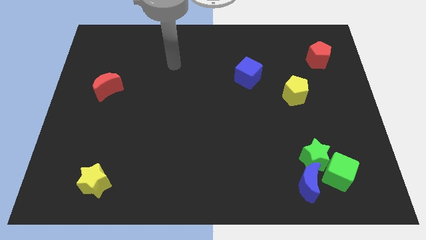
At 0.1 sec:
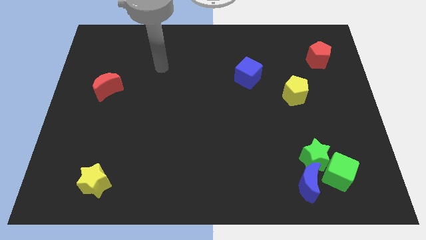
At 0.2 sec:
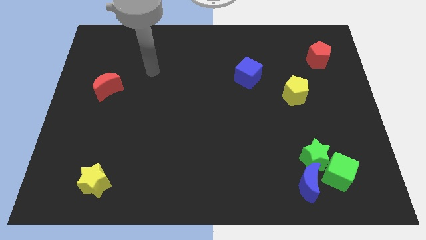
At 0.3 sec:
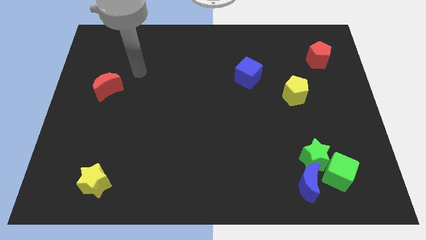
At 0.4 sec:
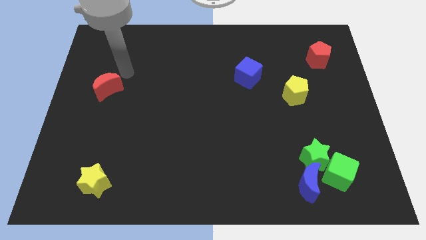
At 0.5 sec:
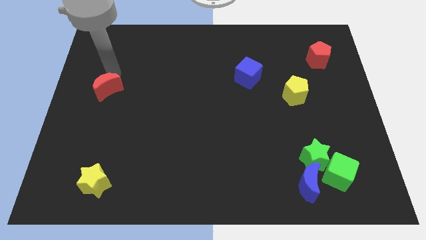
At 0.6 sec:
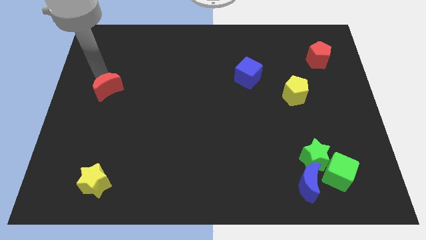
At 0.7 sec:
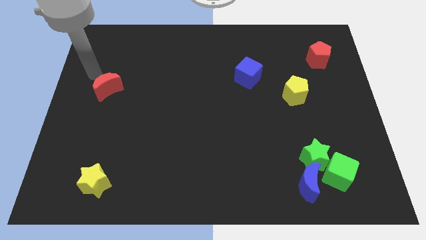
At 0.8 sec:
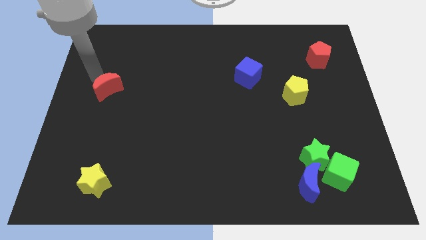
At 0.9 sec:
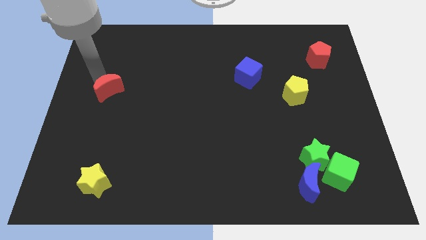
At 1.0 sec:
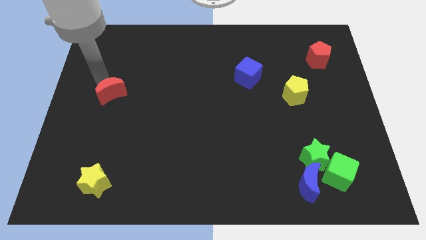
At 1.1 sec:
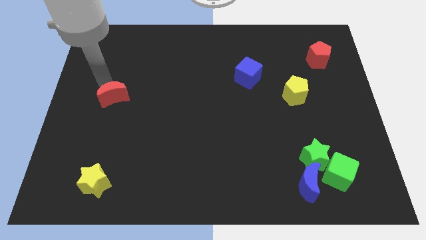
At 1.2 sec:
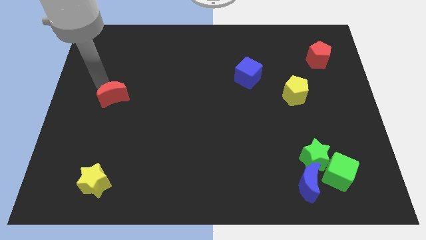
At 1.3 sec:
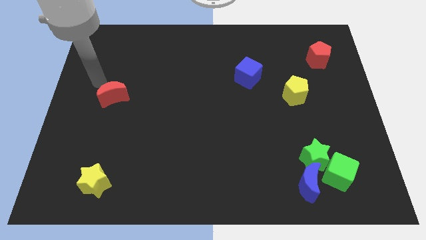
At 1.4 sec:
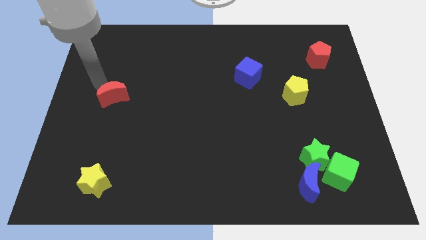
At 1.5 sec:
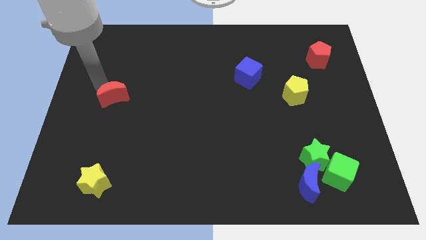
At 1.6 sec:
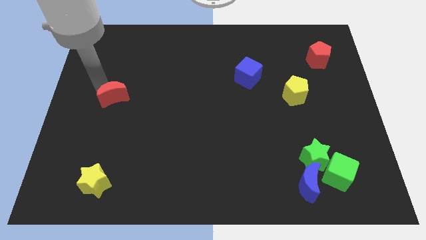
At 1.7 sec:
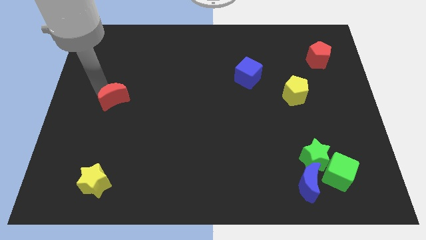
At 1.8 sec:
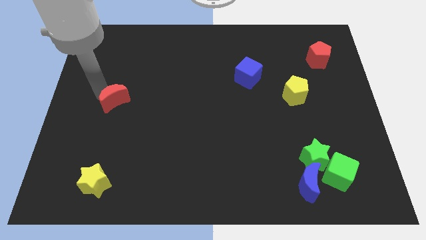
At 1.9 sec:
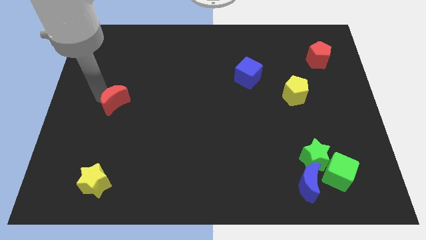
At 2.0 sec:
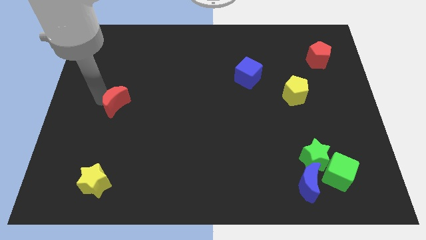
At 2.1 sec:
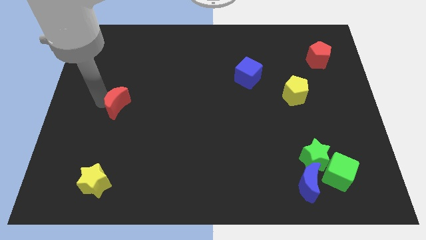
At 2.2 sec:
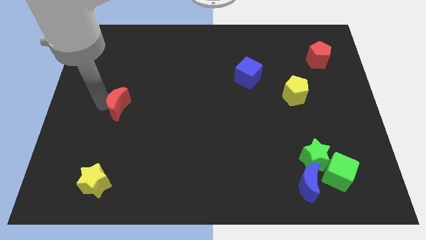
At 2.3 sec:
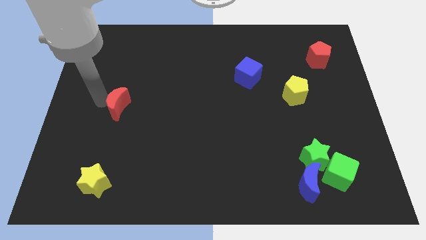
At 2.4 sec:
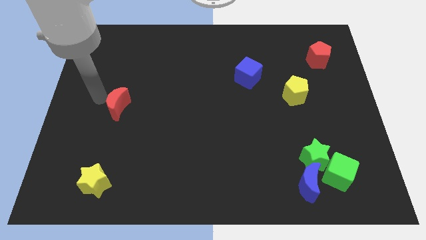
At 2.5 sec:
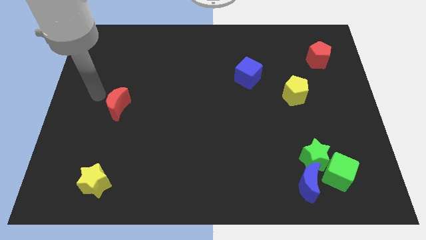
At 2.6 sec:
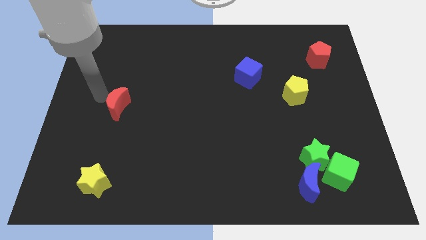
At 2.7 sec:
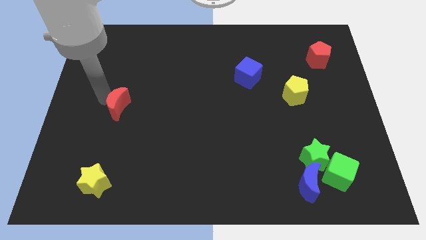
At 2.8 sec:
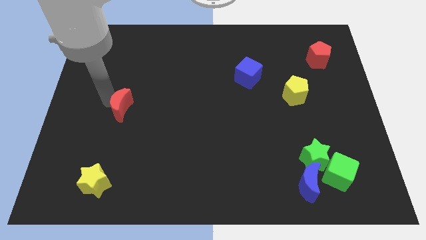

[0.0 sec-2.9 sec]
slightly move the red moon diagonally down and to the right

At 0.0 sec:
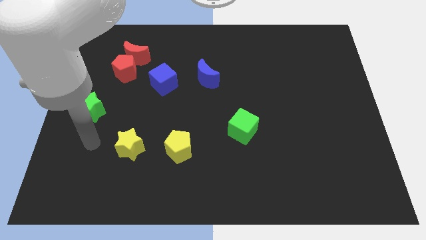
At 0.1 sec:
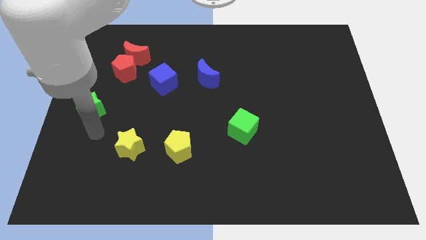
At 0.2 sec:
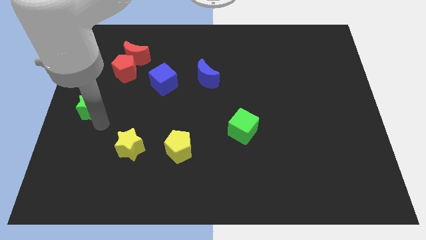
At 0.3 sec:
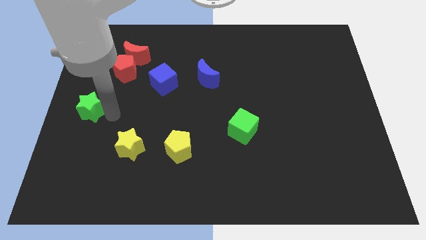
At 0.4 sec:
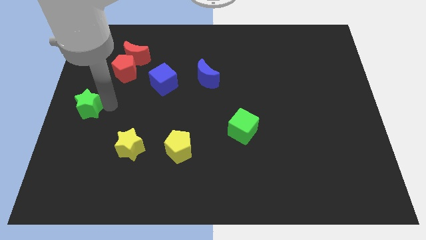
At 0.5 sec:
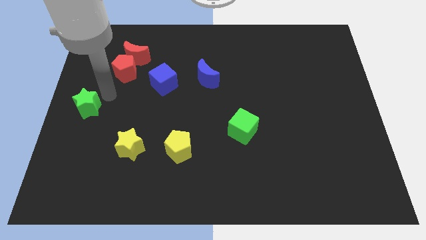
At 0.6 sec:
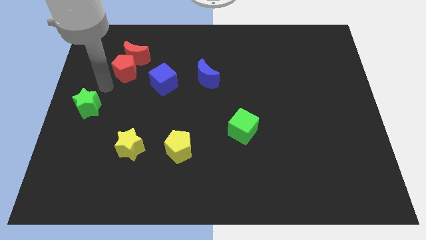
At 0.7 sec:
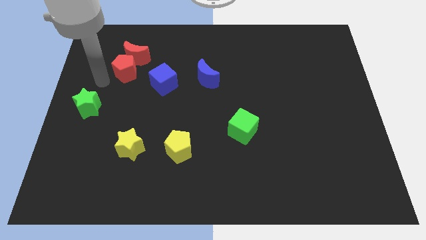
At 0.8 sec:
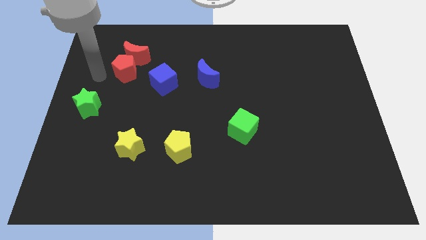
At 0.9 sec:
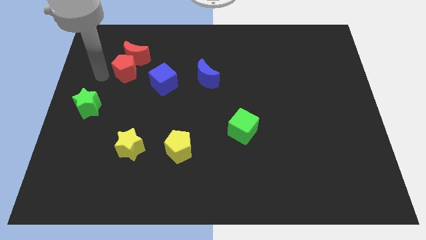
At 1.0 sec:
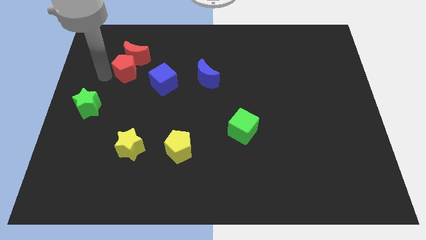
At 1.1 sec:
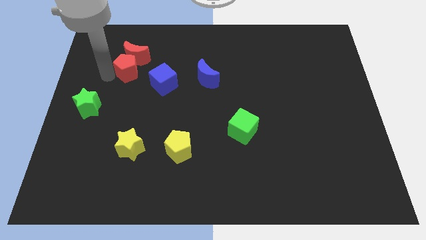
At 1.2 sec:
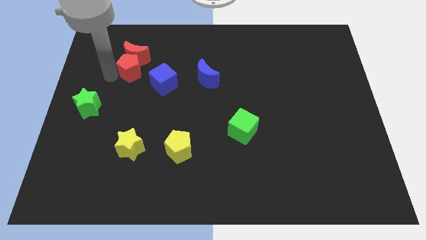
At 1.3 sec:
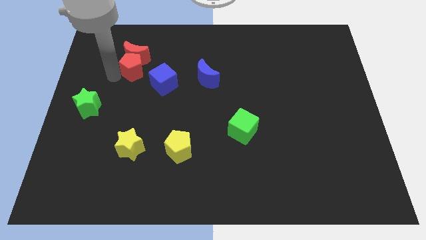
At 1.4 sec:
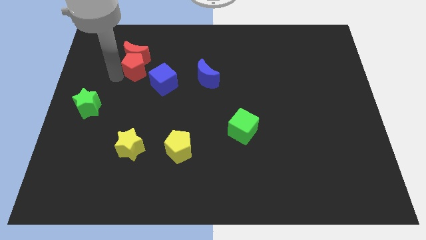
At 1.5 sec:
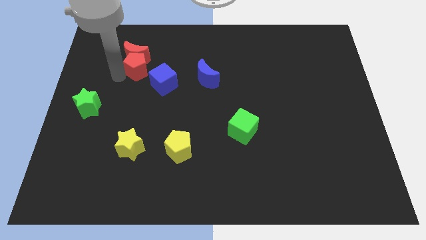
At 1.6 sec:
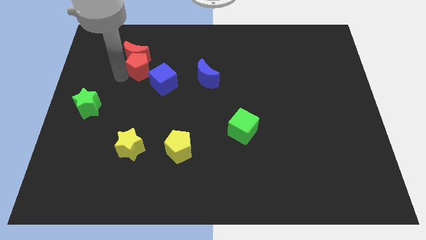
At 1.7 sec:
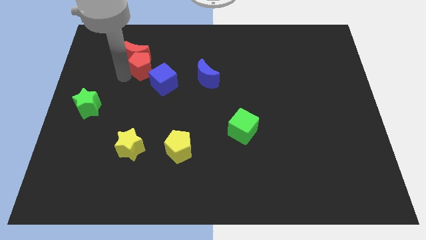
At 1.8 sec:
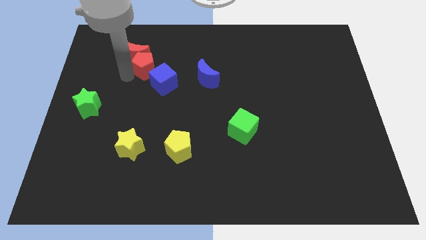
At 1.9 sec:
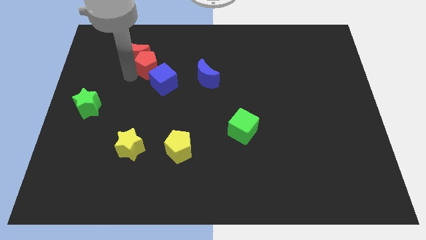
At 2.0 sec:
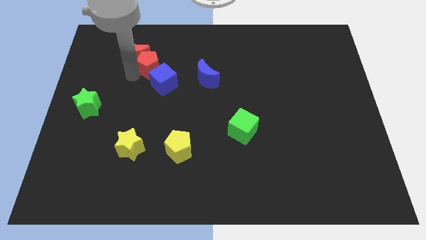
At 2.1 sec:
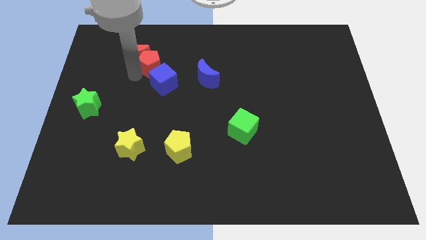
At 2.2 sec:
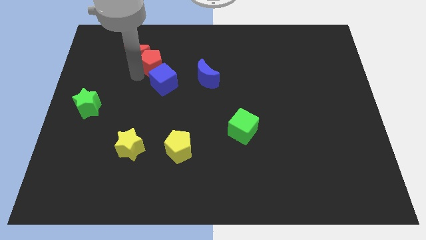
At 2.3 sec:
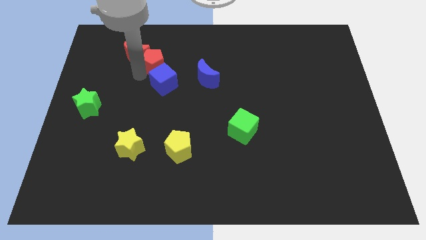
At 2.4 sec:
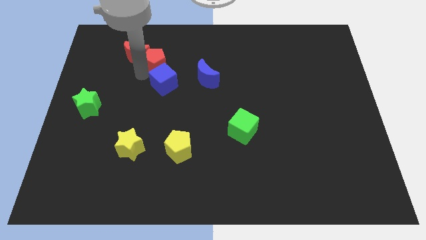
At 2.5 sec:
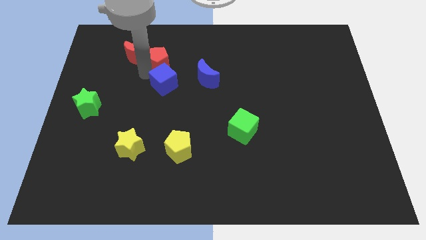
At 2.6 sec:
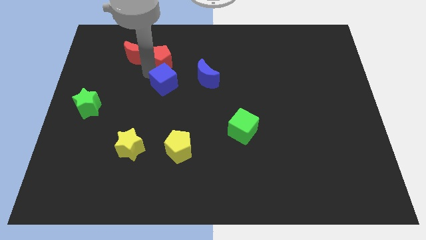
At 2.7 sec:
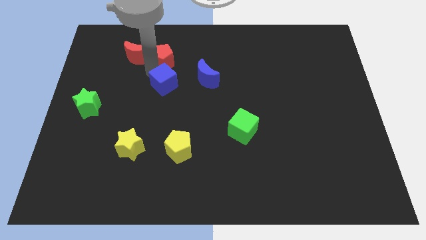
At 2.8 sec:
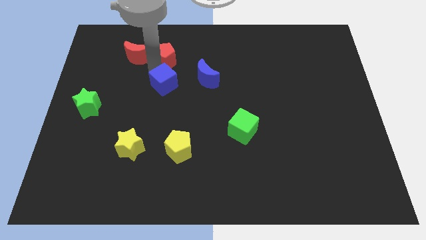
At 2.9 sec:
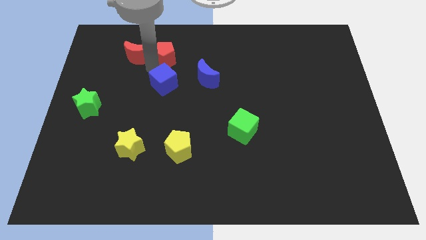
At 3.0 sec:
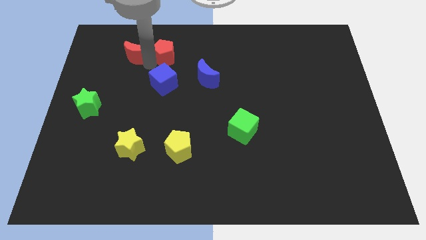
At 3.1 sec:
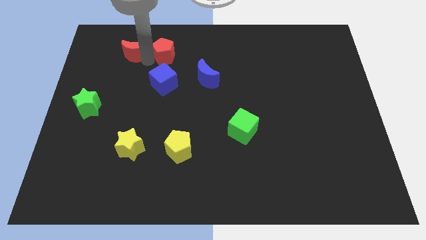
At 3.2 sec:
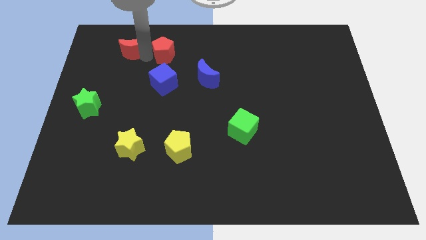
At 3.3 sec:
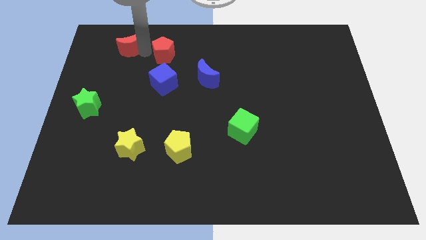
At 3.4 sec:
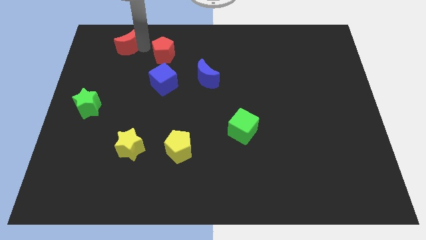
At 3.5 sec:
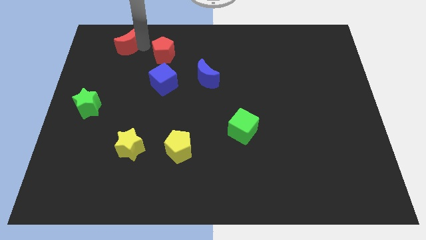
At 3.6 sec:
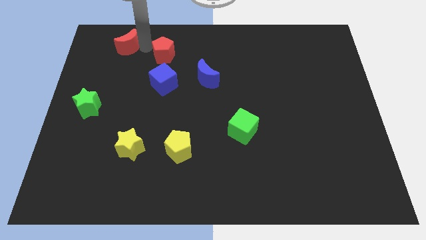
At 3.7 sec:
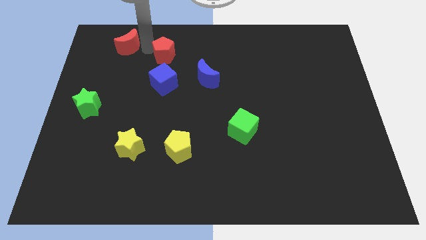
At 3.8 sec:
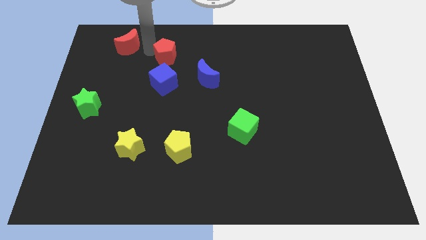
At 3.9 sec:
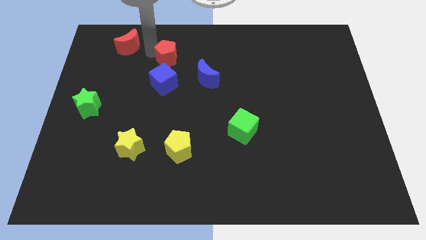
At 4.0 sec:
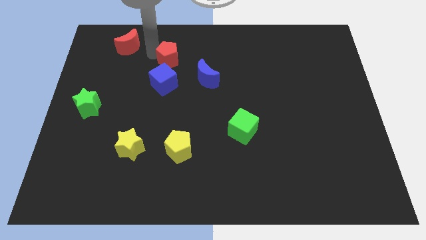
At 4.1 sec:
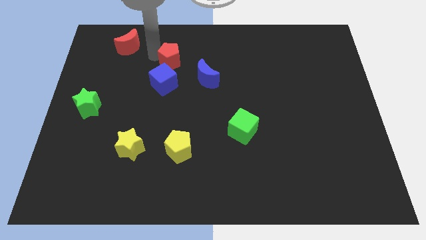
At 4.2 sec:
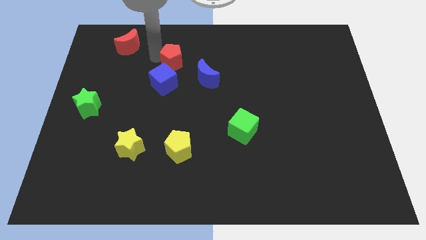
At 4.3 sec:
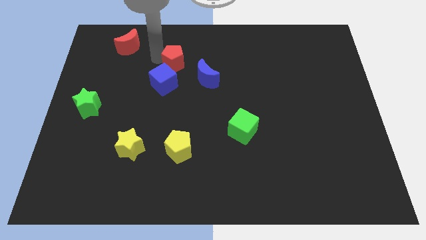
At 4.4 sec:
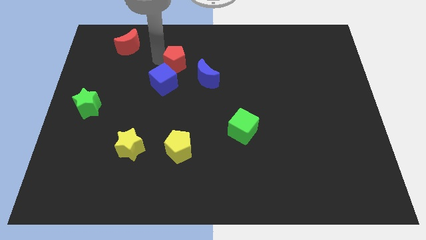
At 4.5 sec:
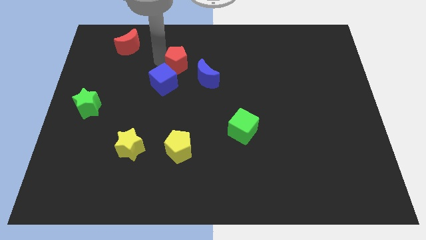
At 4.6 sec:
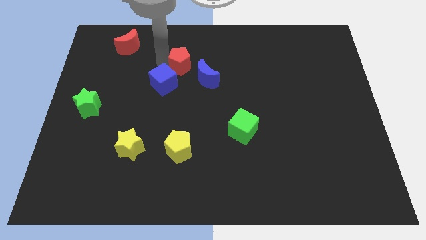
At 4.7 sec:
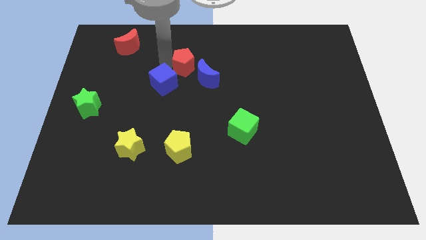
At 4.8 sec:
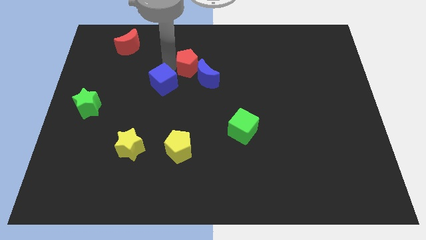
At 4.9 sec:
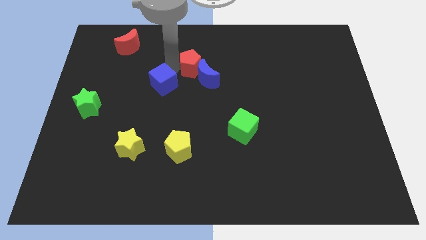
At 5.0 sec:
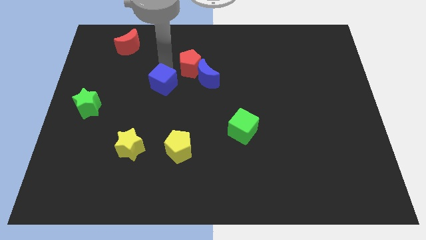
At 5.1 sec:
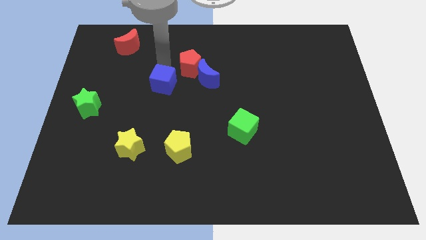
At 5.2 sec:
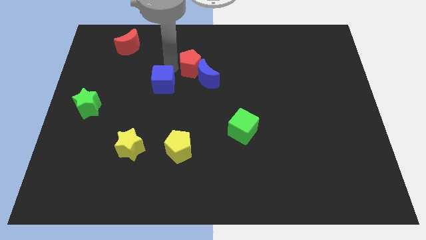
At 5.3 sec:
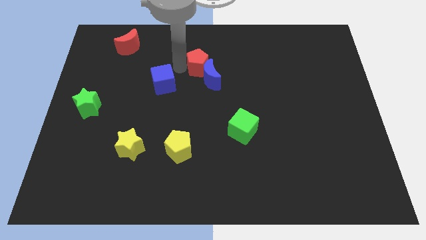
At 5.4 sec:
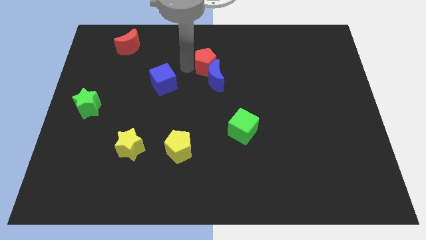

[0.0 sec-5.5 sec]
push the red pentagon to the right
